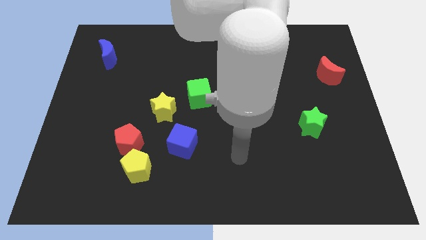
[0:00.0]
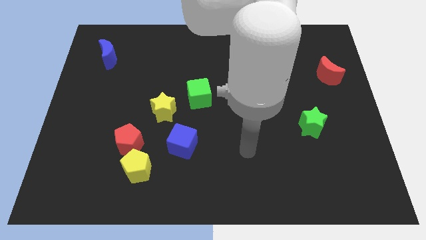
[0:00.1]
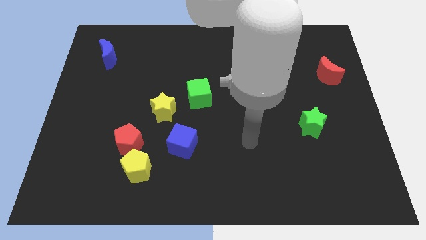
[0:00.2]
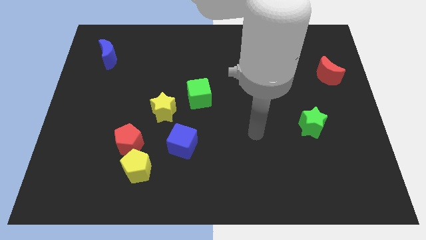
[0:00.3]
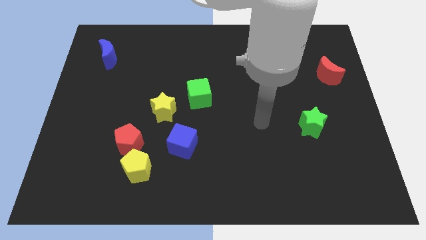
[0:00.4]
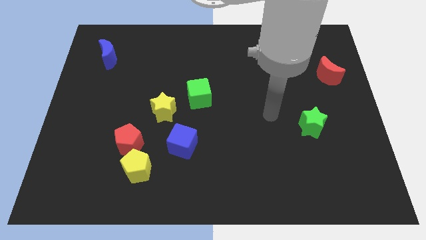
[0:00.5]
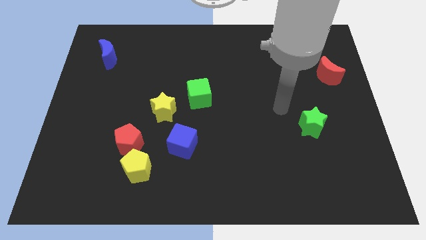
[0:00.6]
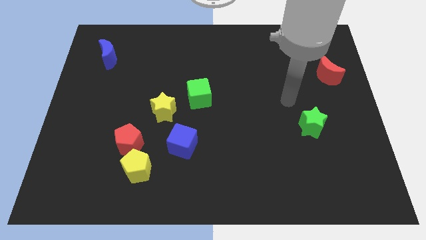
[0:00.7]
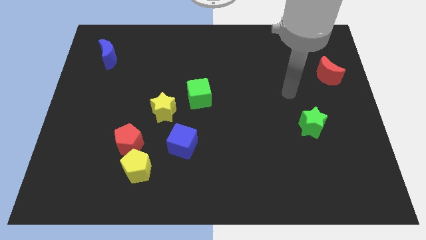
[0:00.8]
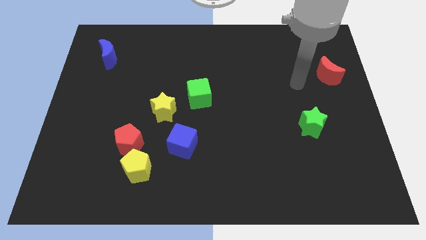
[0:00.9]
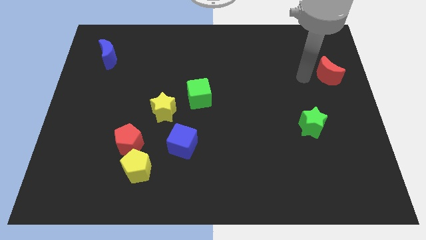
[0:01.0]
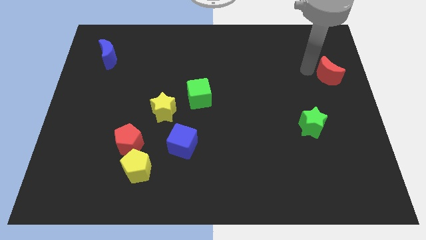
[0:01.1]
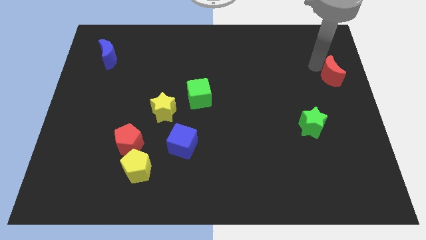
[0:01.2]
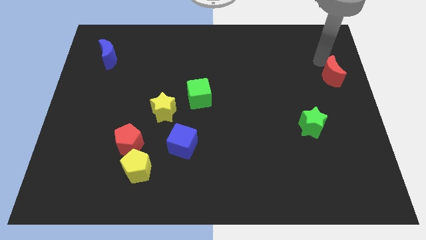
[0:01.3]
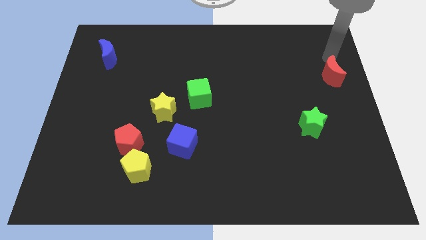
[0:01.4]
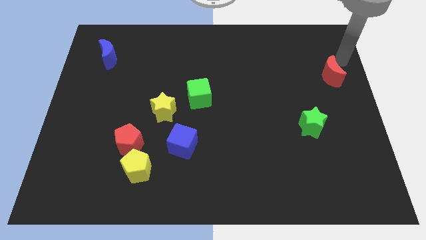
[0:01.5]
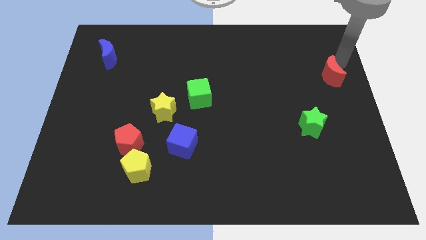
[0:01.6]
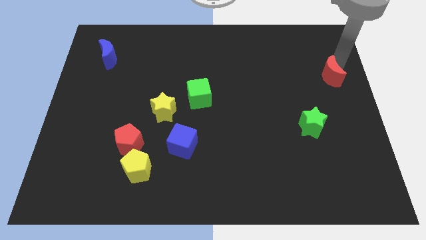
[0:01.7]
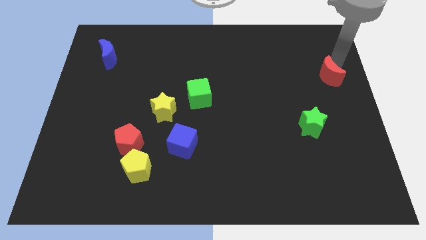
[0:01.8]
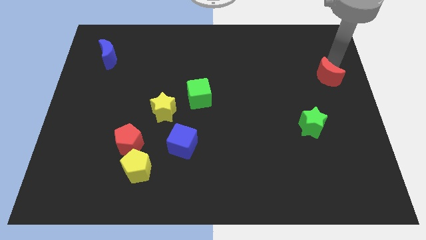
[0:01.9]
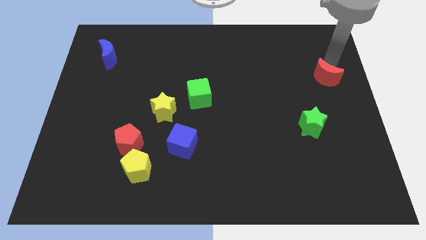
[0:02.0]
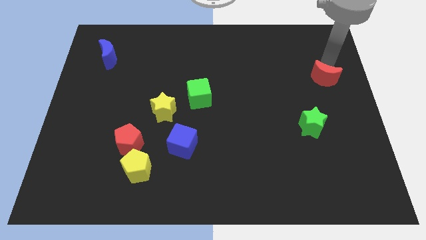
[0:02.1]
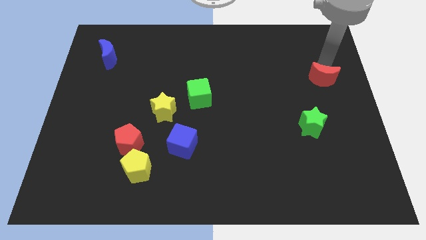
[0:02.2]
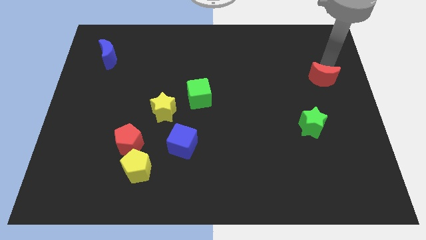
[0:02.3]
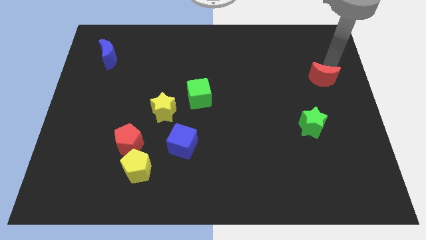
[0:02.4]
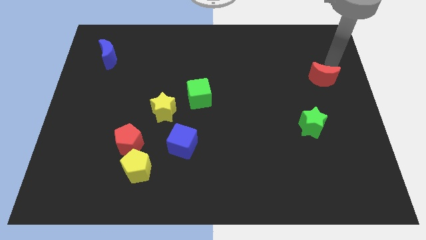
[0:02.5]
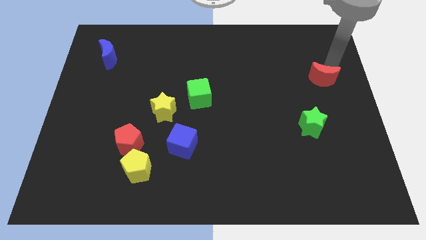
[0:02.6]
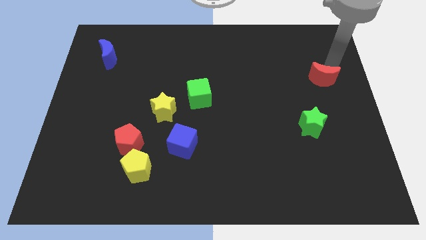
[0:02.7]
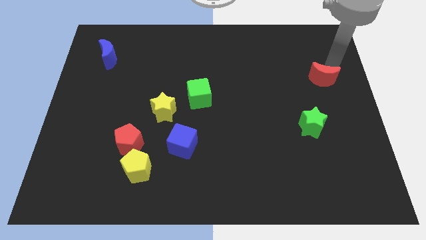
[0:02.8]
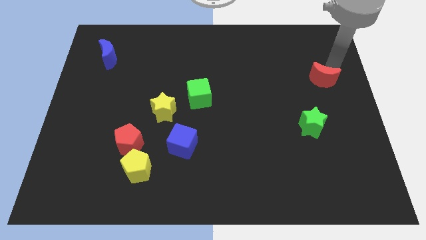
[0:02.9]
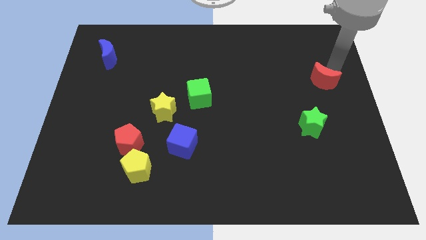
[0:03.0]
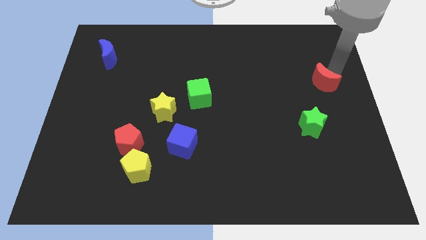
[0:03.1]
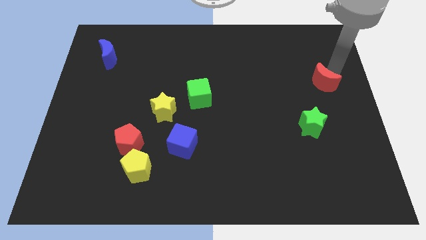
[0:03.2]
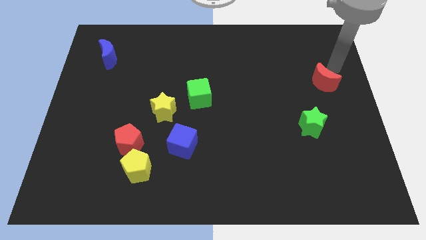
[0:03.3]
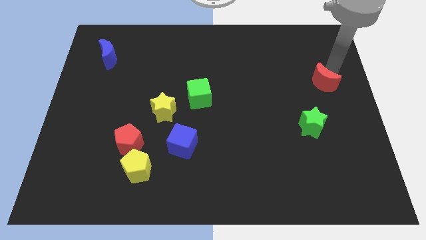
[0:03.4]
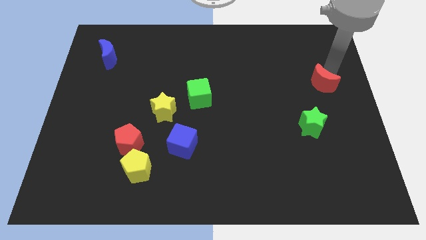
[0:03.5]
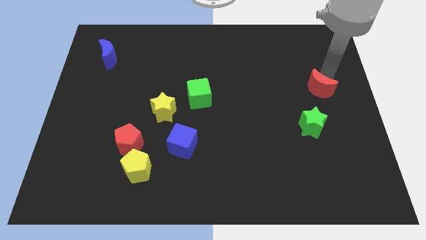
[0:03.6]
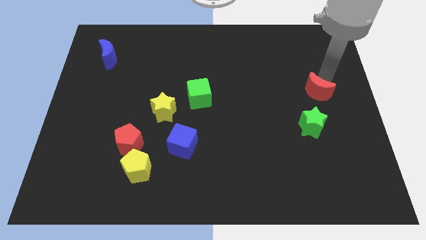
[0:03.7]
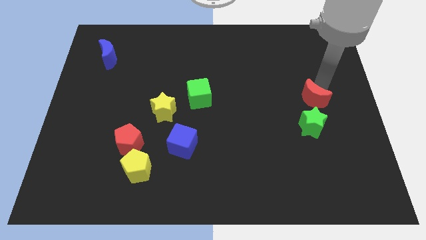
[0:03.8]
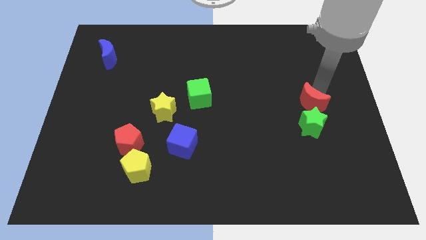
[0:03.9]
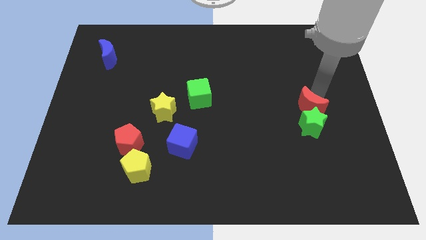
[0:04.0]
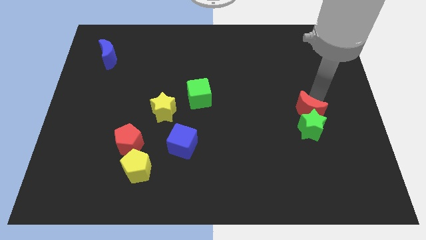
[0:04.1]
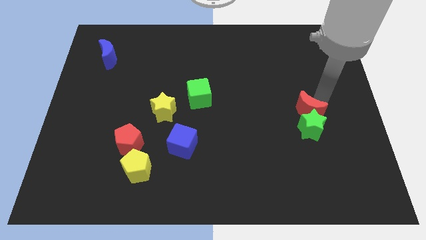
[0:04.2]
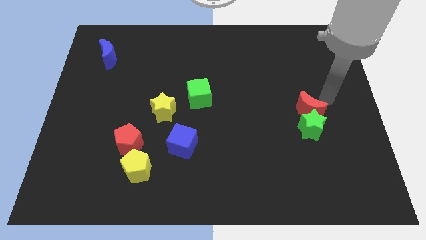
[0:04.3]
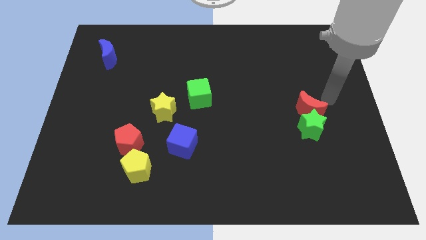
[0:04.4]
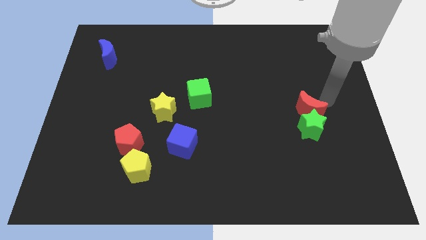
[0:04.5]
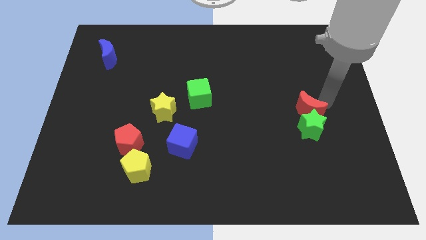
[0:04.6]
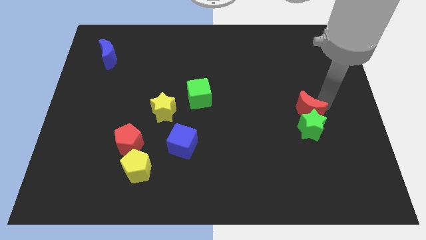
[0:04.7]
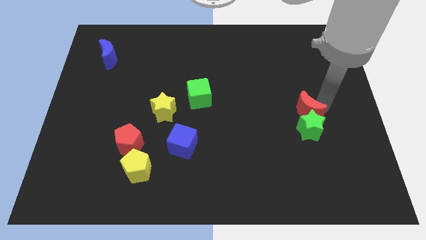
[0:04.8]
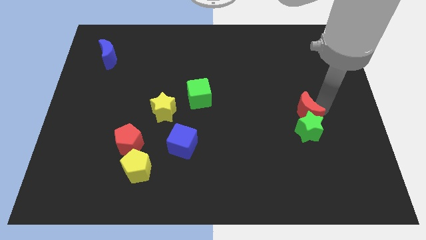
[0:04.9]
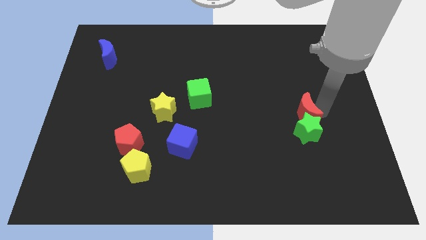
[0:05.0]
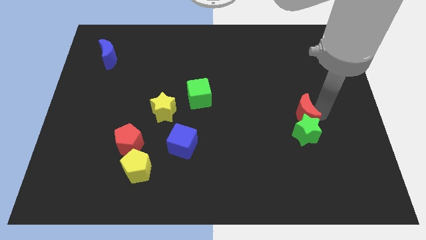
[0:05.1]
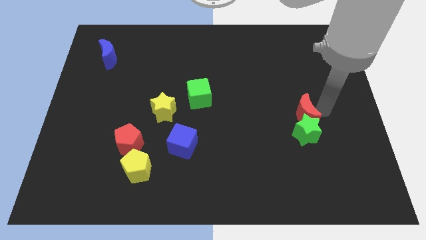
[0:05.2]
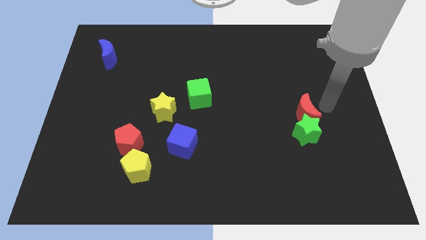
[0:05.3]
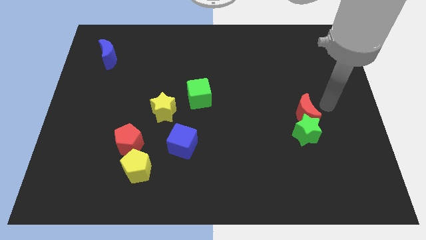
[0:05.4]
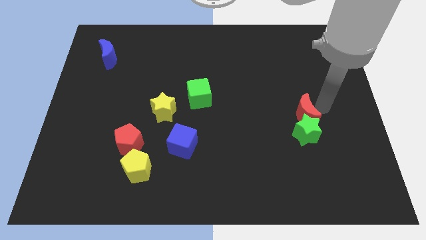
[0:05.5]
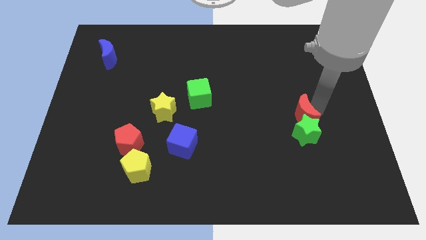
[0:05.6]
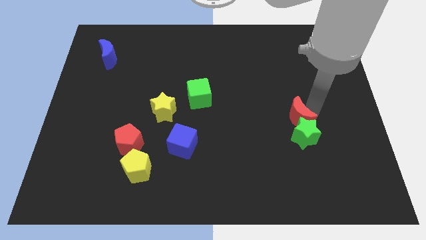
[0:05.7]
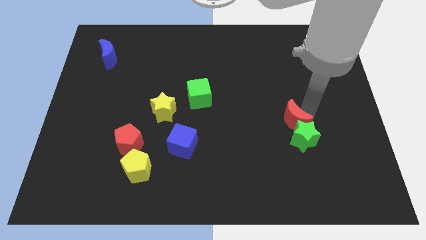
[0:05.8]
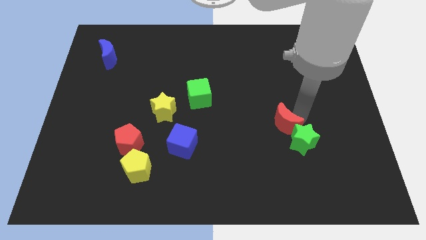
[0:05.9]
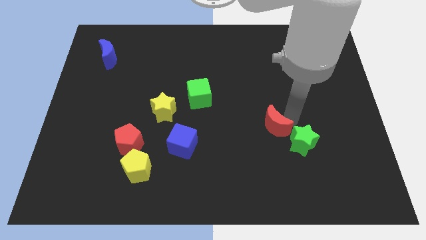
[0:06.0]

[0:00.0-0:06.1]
push the red moon downwards and to the left diagonally

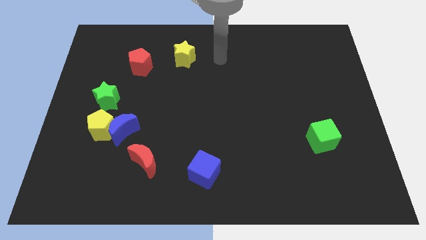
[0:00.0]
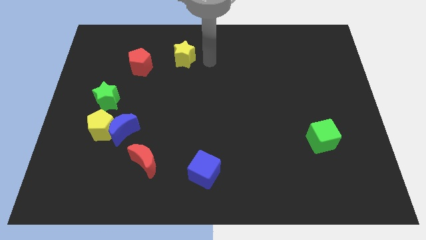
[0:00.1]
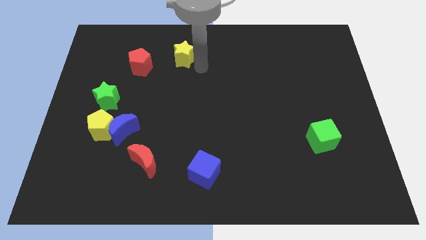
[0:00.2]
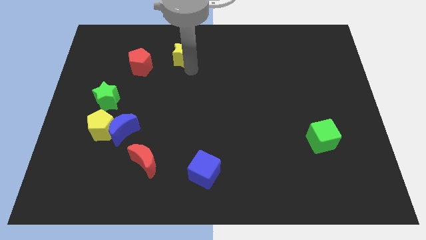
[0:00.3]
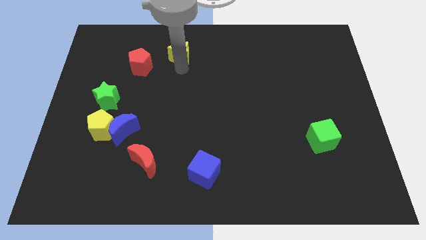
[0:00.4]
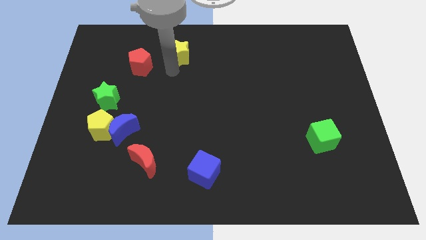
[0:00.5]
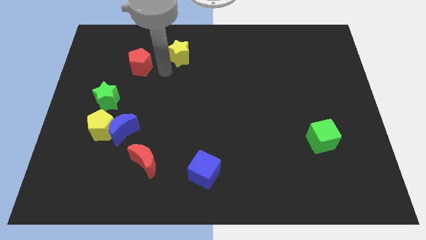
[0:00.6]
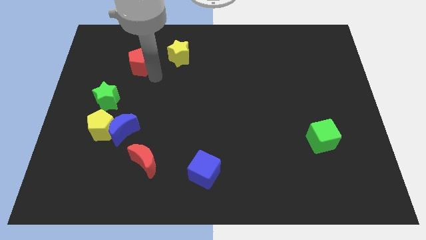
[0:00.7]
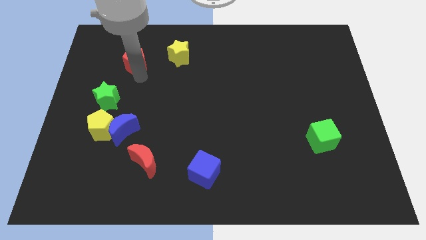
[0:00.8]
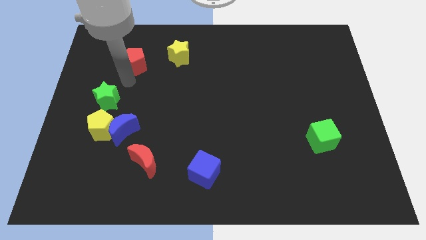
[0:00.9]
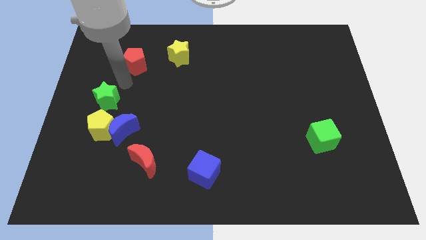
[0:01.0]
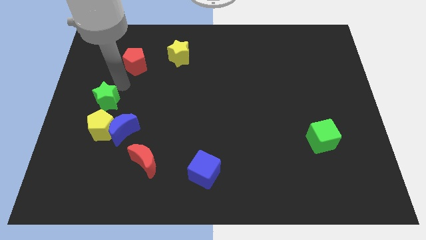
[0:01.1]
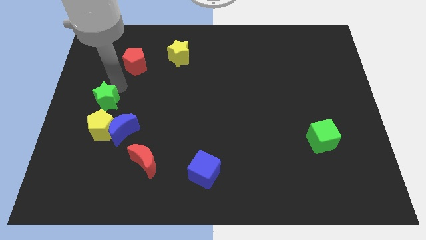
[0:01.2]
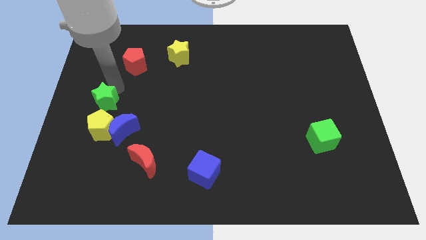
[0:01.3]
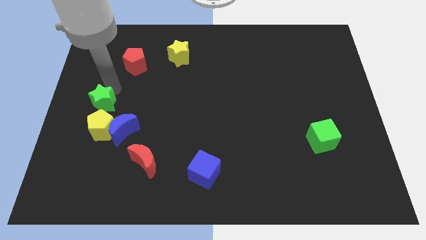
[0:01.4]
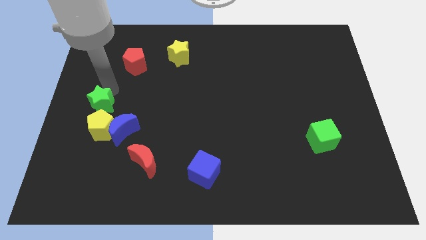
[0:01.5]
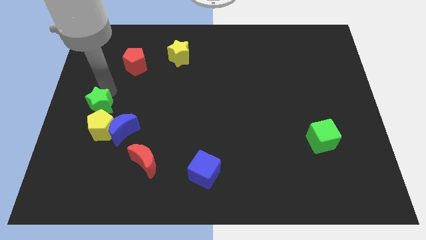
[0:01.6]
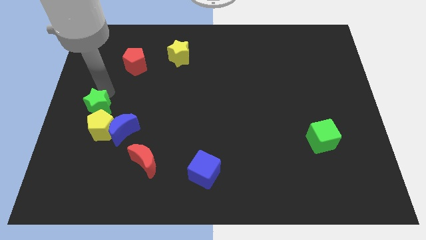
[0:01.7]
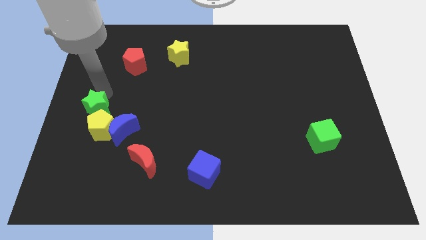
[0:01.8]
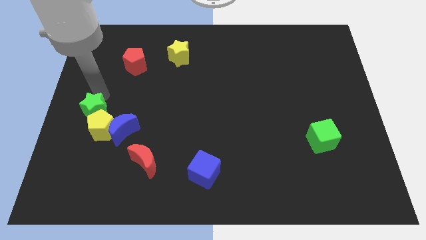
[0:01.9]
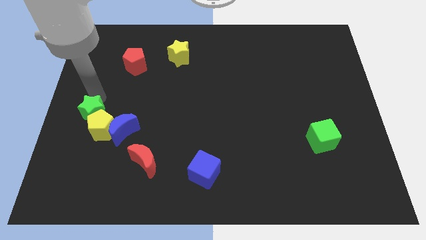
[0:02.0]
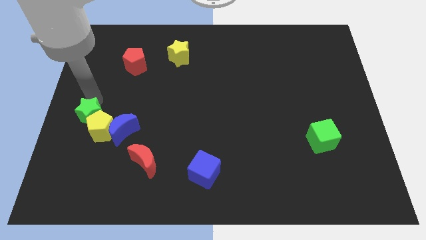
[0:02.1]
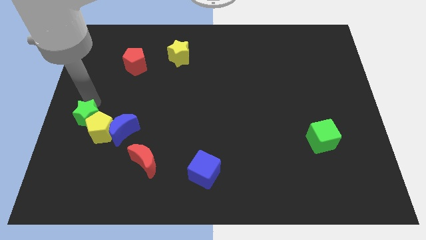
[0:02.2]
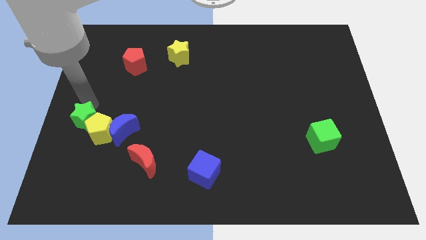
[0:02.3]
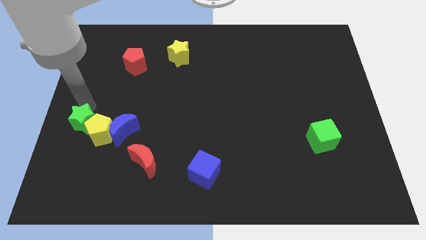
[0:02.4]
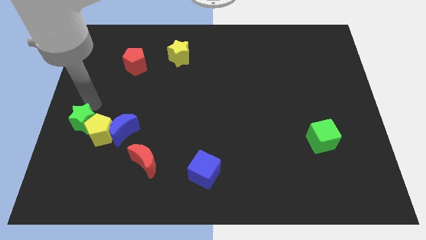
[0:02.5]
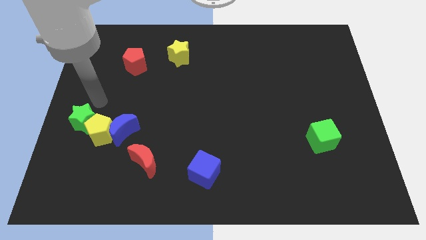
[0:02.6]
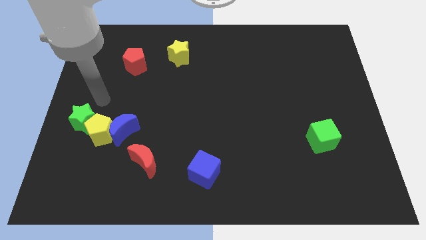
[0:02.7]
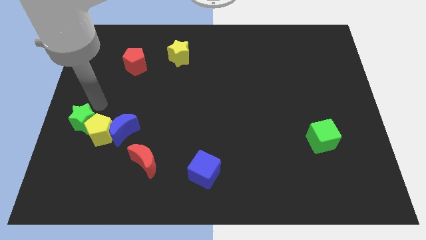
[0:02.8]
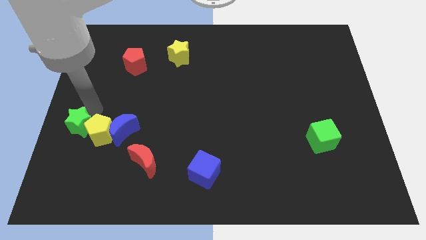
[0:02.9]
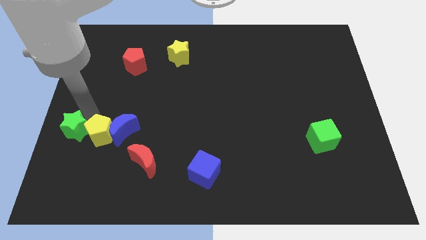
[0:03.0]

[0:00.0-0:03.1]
move the green star downwards a little
